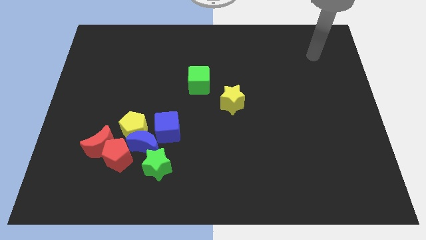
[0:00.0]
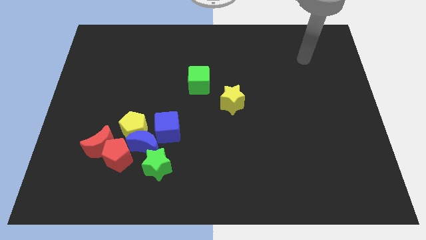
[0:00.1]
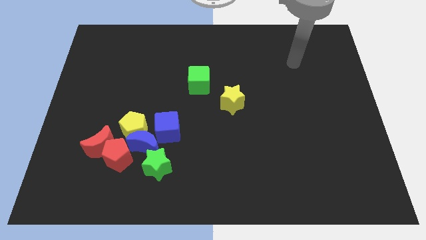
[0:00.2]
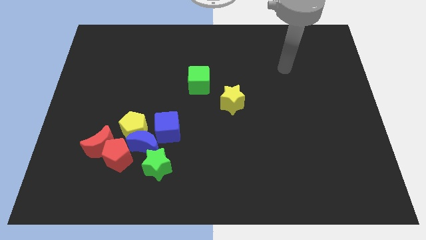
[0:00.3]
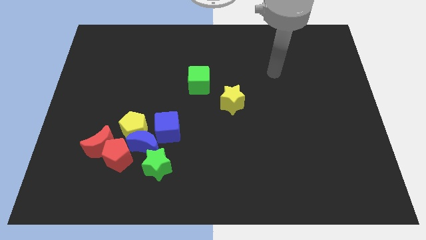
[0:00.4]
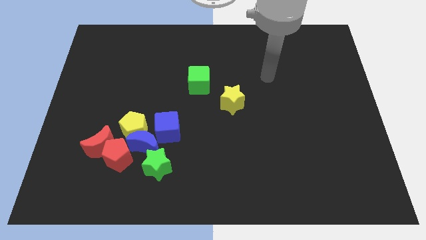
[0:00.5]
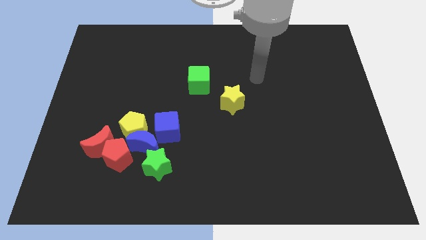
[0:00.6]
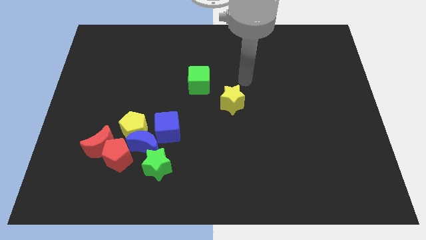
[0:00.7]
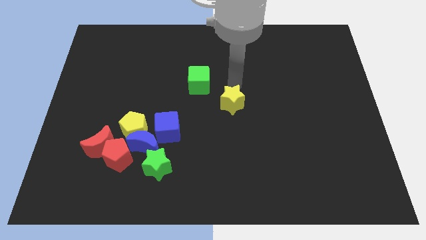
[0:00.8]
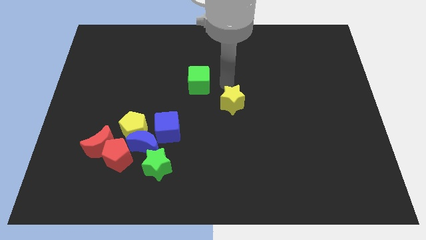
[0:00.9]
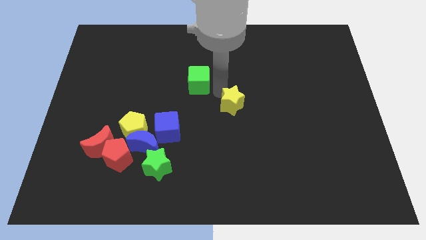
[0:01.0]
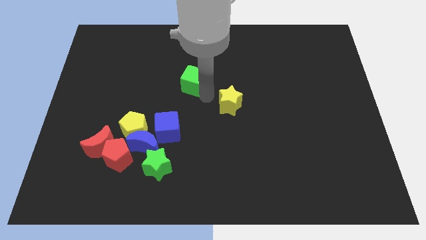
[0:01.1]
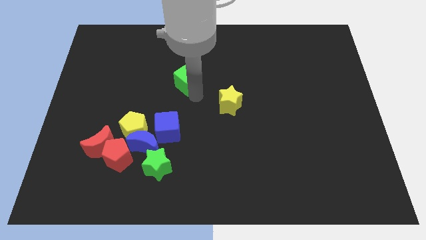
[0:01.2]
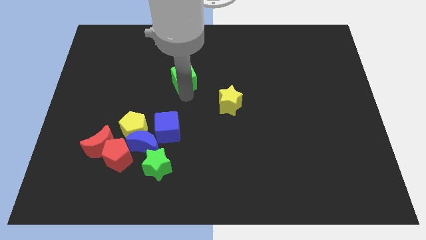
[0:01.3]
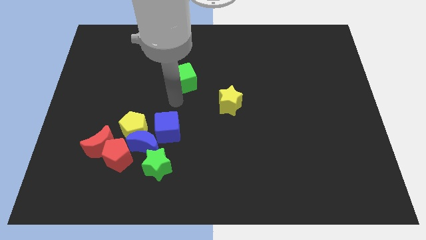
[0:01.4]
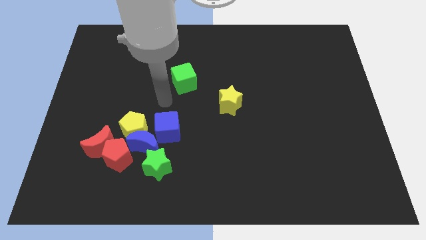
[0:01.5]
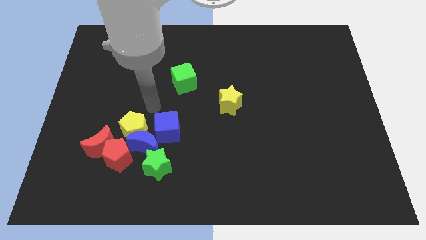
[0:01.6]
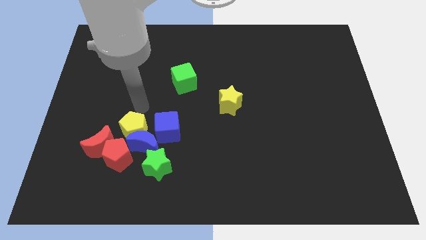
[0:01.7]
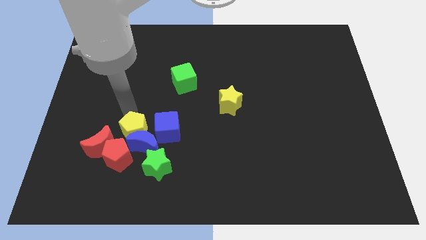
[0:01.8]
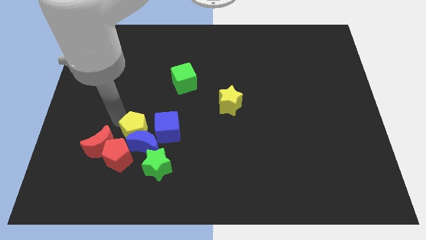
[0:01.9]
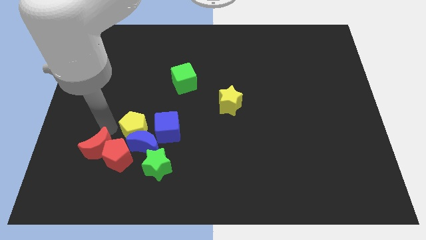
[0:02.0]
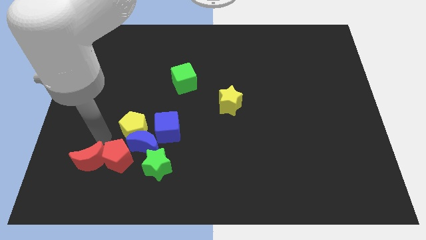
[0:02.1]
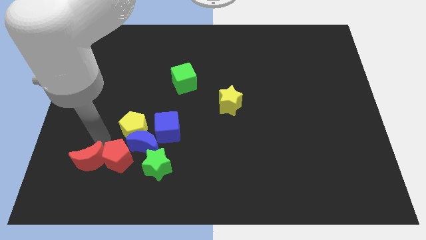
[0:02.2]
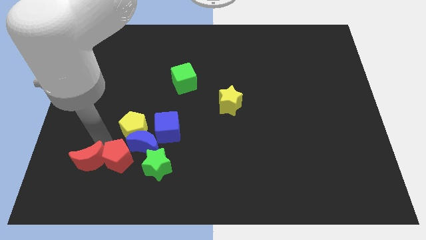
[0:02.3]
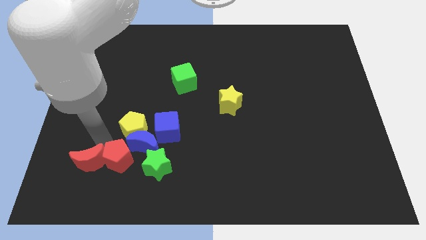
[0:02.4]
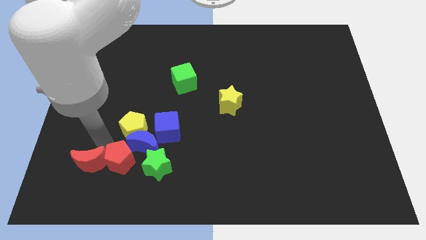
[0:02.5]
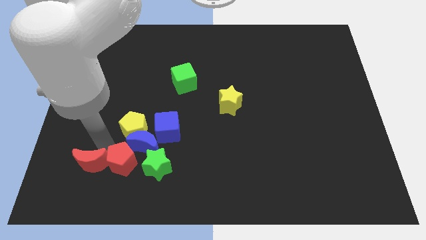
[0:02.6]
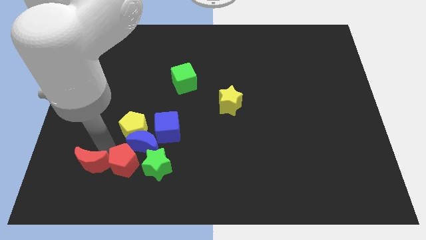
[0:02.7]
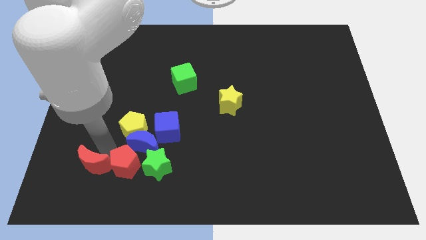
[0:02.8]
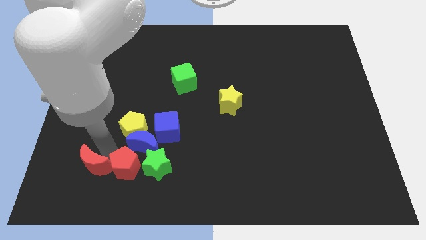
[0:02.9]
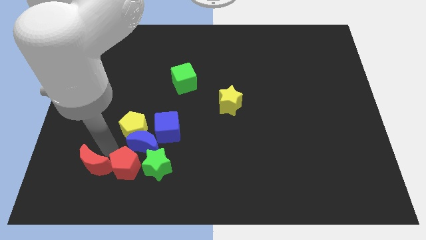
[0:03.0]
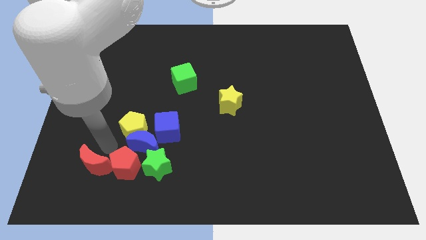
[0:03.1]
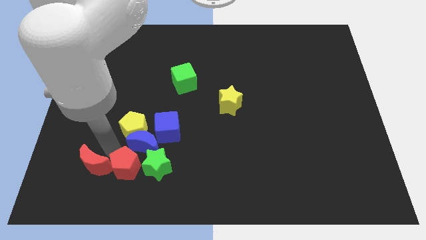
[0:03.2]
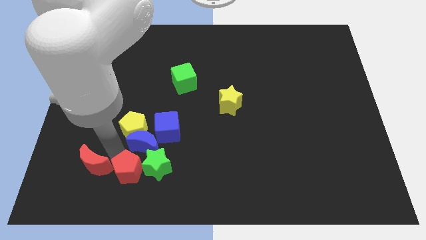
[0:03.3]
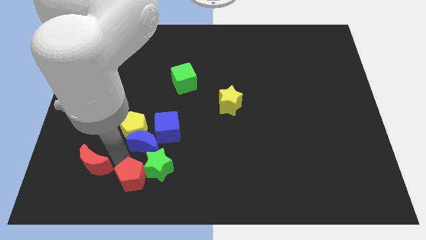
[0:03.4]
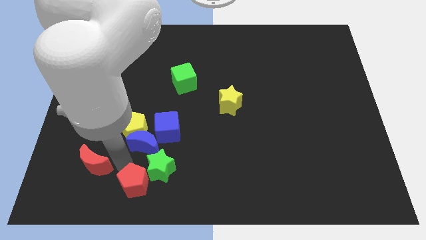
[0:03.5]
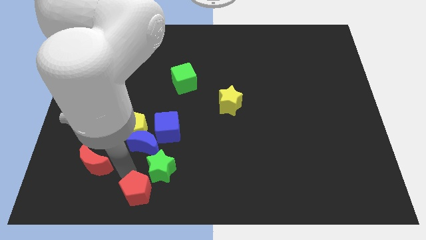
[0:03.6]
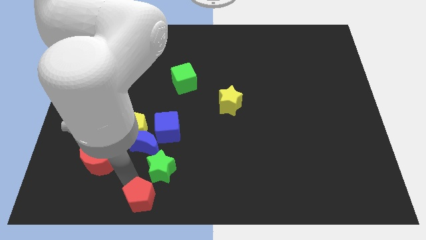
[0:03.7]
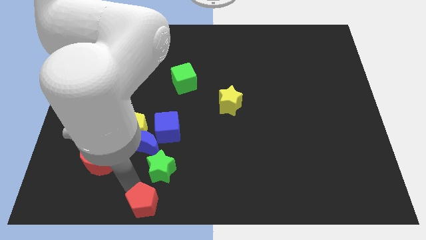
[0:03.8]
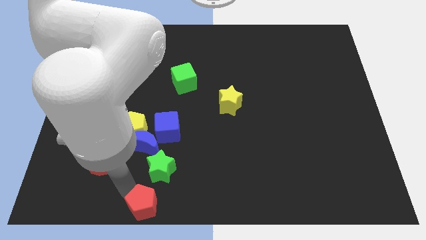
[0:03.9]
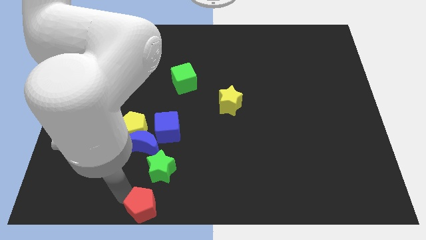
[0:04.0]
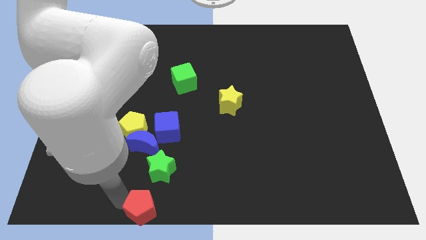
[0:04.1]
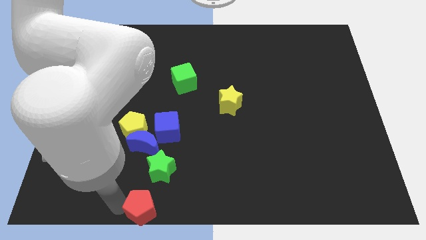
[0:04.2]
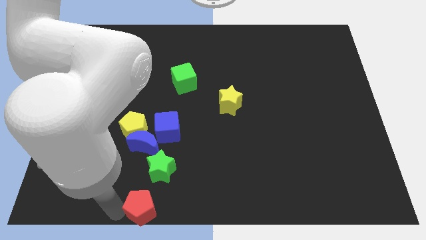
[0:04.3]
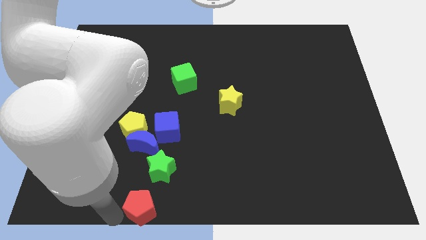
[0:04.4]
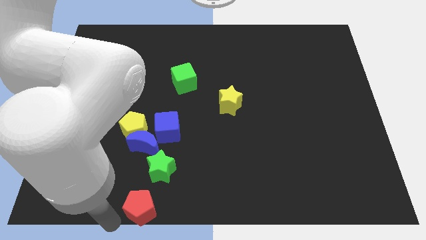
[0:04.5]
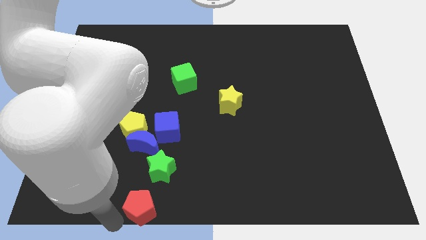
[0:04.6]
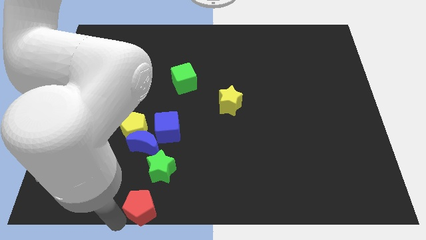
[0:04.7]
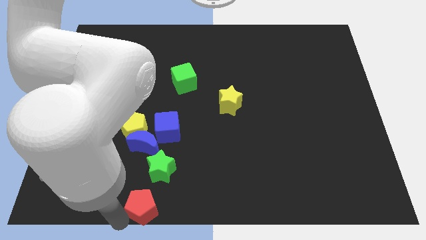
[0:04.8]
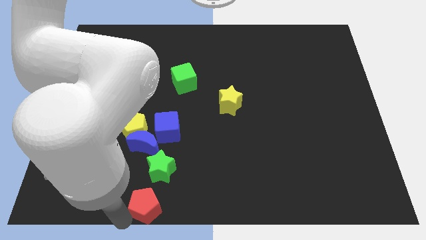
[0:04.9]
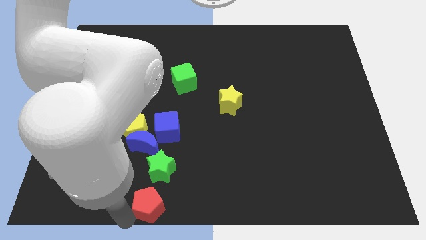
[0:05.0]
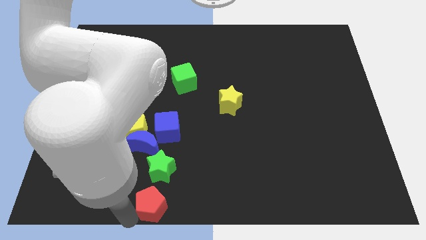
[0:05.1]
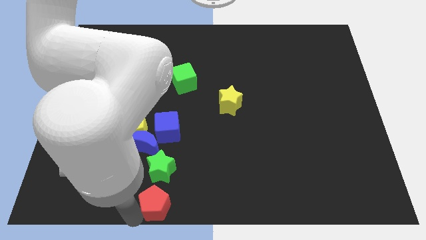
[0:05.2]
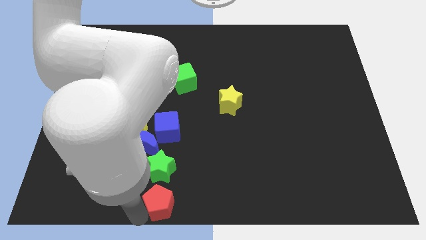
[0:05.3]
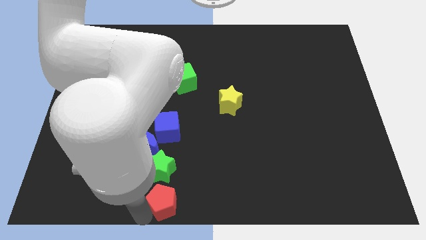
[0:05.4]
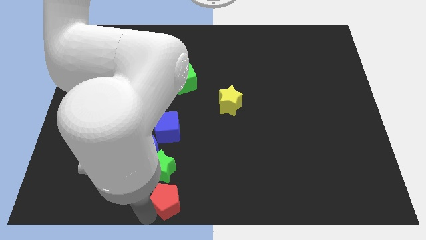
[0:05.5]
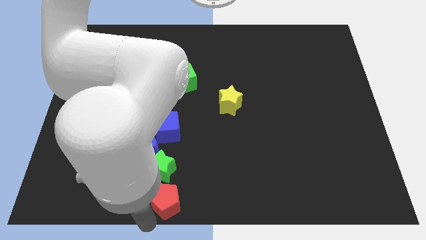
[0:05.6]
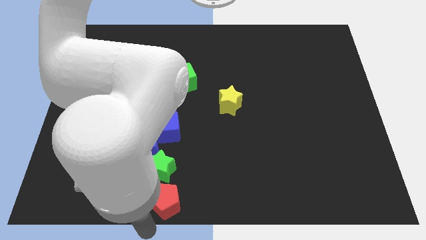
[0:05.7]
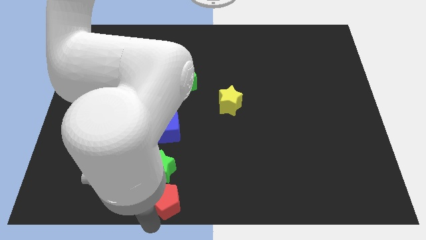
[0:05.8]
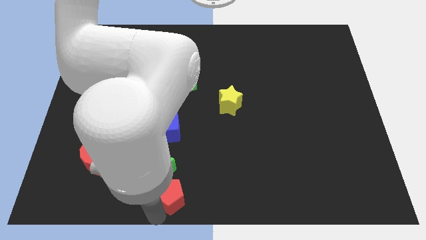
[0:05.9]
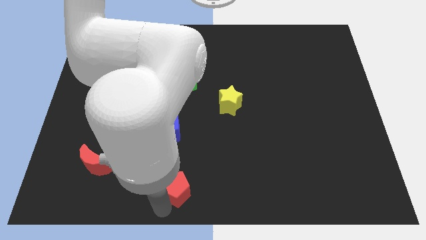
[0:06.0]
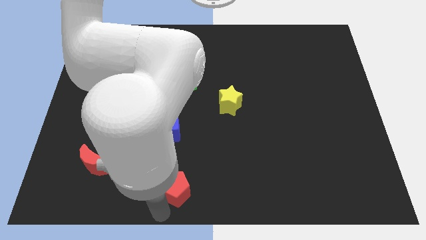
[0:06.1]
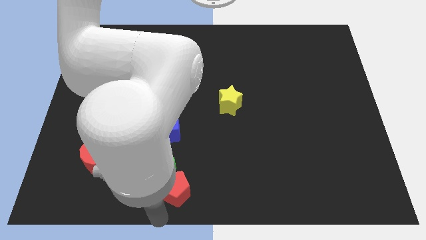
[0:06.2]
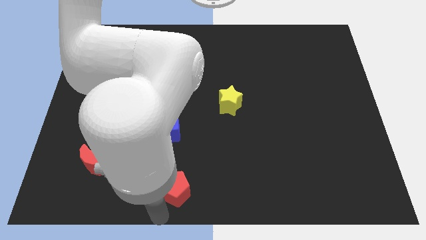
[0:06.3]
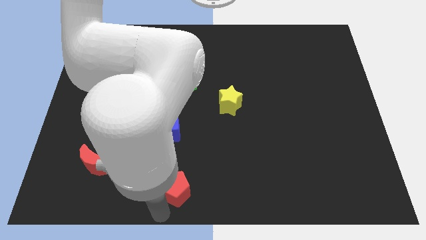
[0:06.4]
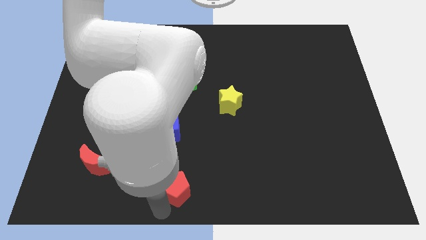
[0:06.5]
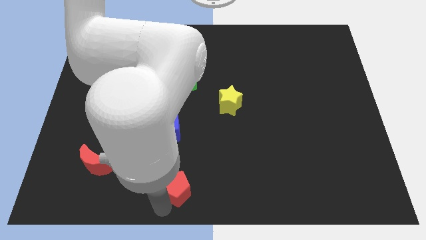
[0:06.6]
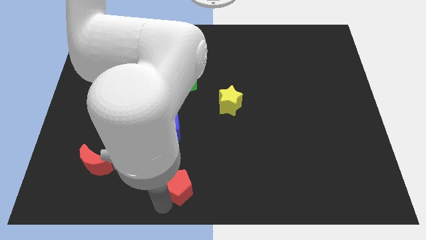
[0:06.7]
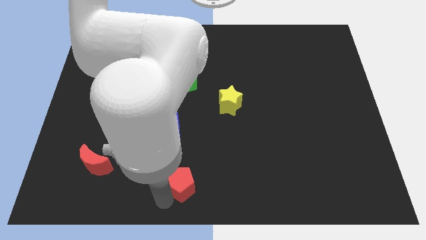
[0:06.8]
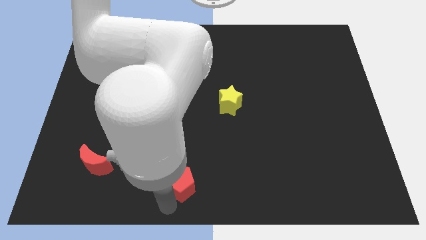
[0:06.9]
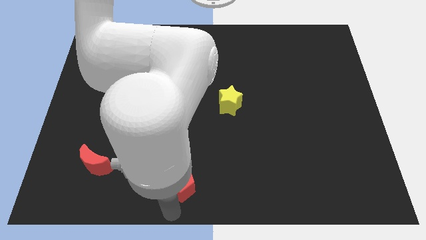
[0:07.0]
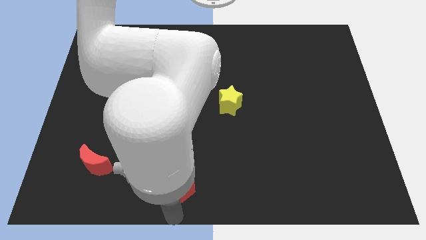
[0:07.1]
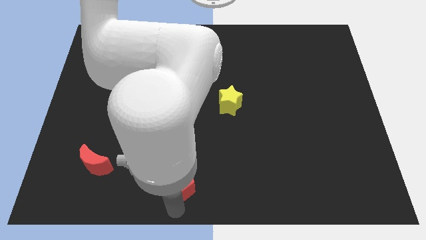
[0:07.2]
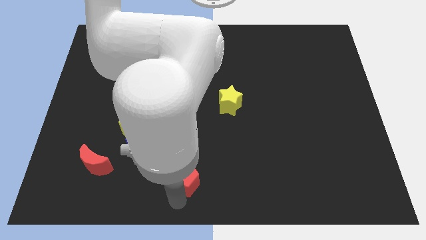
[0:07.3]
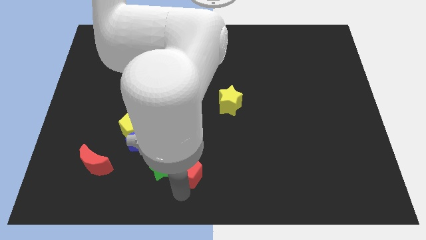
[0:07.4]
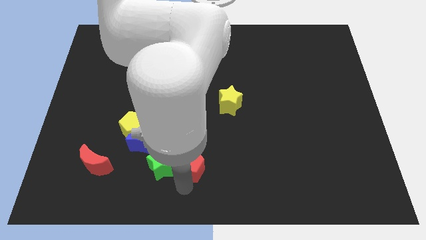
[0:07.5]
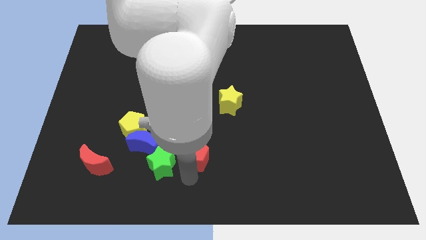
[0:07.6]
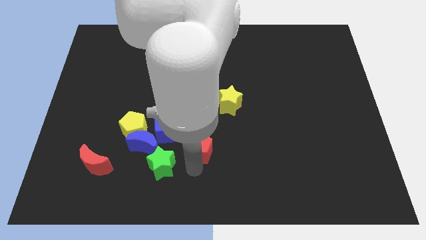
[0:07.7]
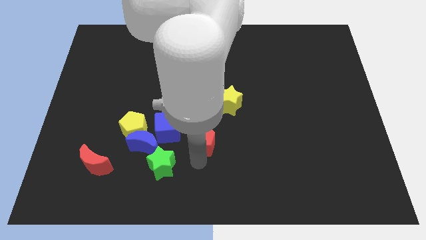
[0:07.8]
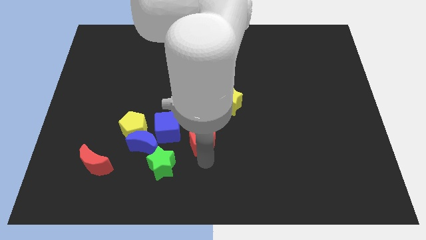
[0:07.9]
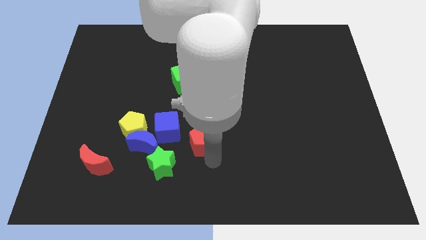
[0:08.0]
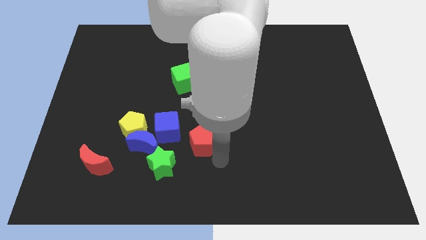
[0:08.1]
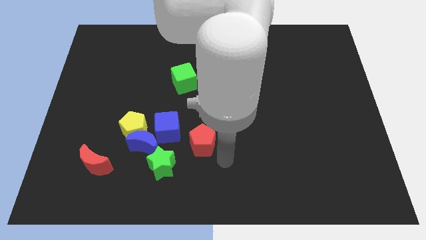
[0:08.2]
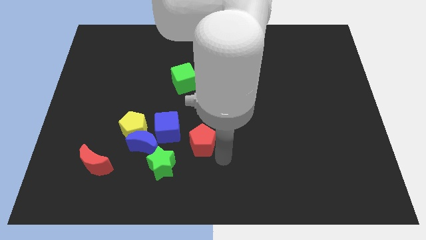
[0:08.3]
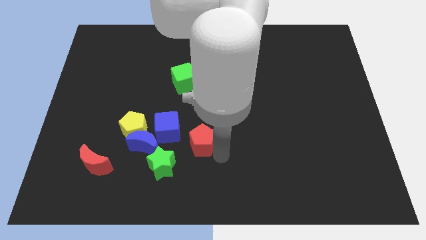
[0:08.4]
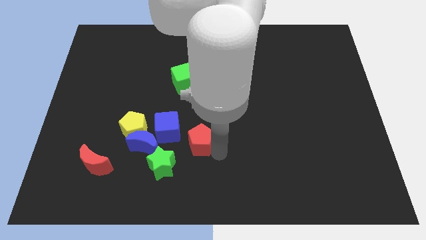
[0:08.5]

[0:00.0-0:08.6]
push the red pentagon to the right of the yellow pentagon
